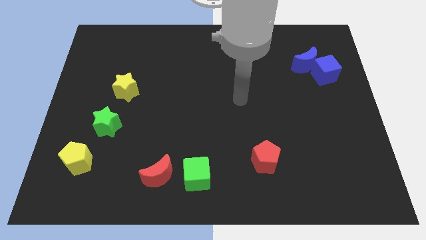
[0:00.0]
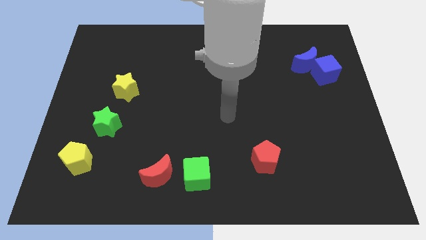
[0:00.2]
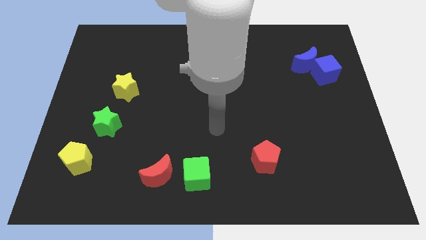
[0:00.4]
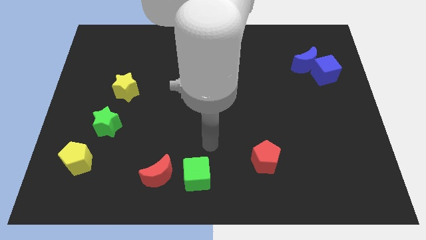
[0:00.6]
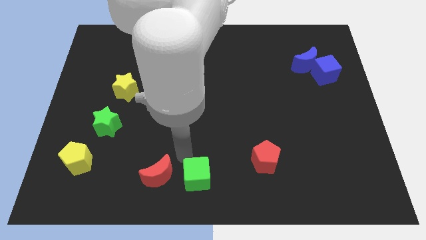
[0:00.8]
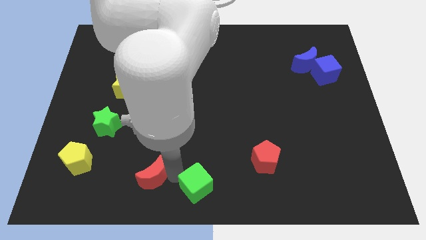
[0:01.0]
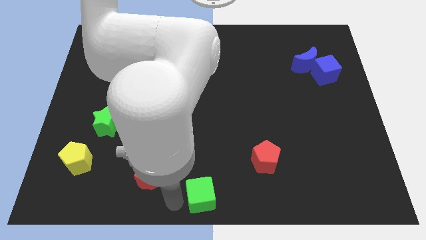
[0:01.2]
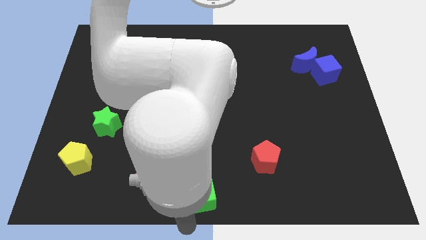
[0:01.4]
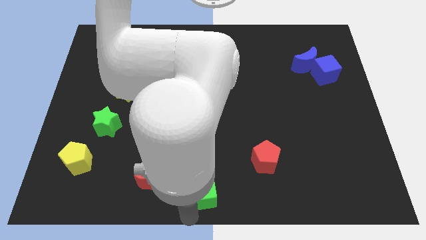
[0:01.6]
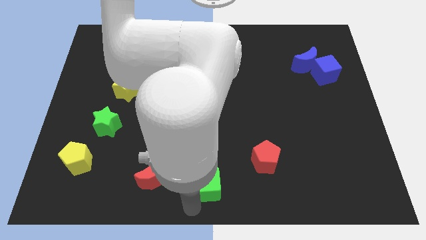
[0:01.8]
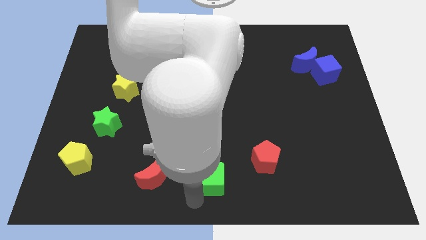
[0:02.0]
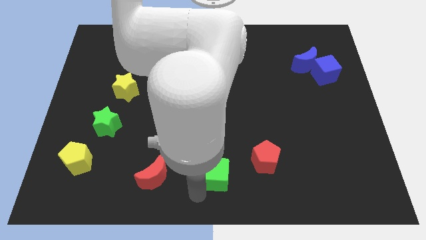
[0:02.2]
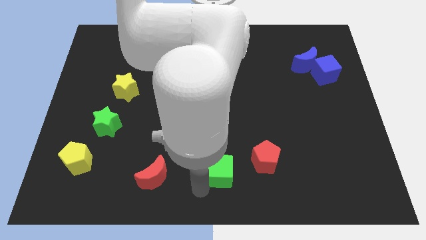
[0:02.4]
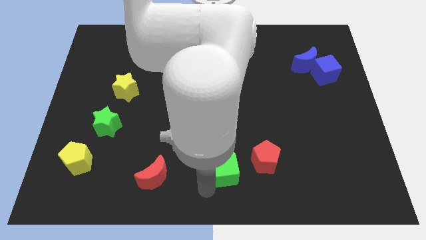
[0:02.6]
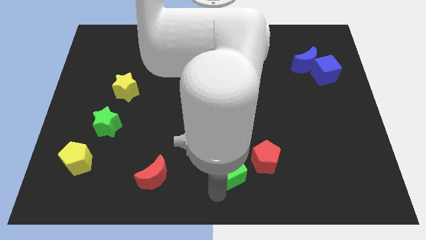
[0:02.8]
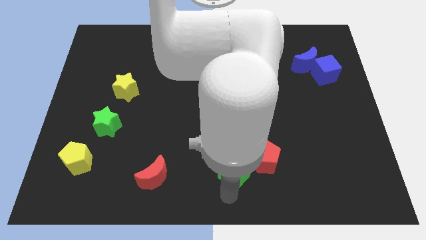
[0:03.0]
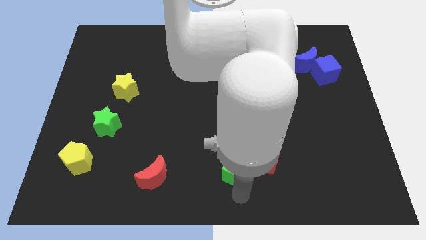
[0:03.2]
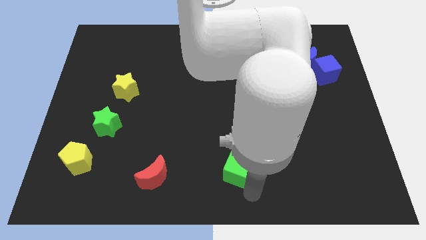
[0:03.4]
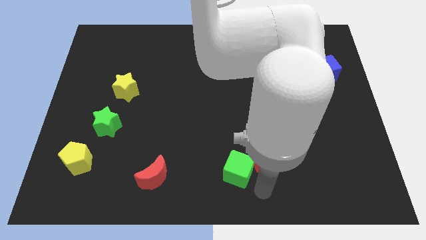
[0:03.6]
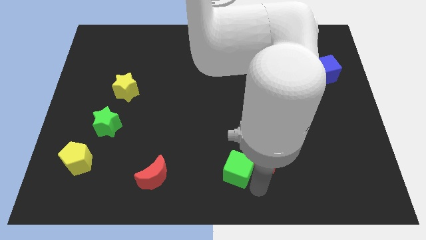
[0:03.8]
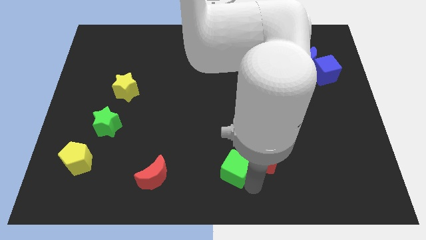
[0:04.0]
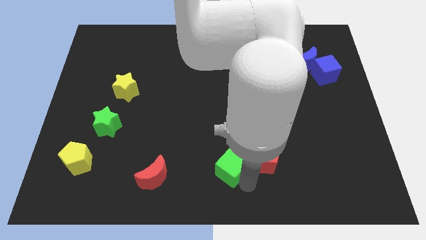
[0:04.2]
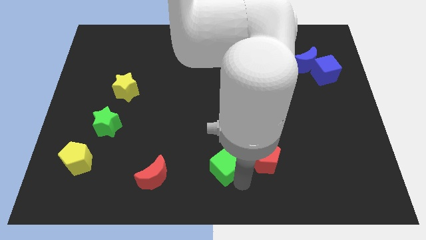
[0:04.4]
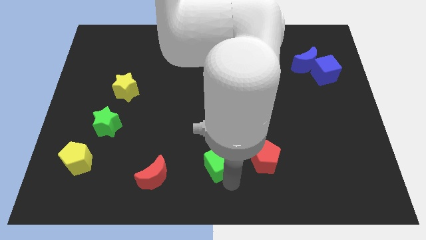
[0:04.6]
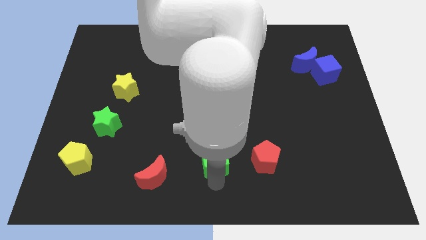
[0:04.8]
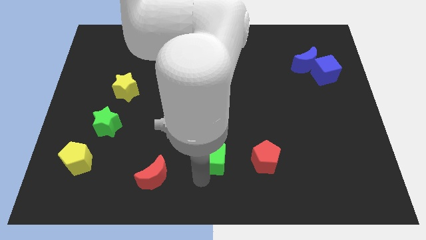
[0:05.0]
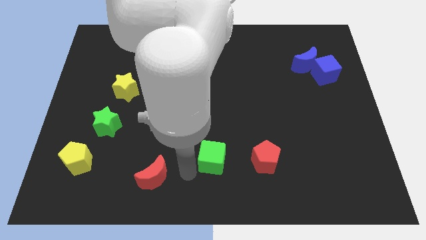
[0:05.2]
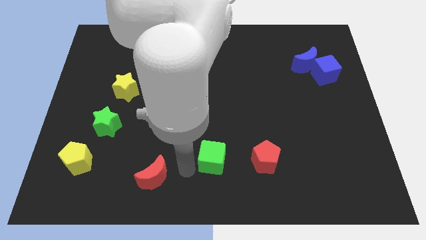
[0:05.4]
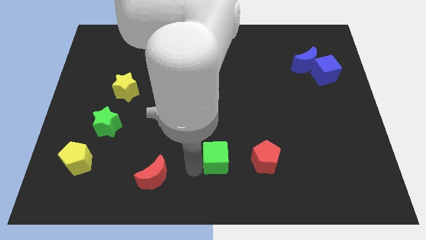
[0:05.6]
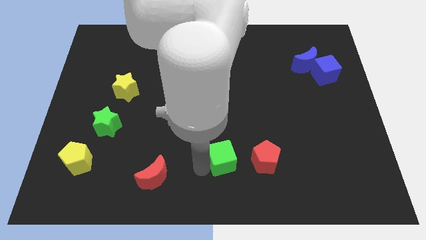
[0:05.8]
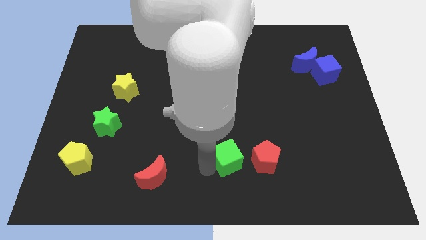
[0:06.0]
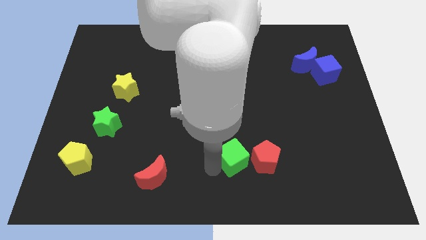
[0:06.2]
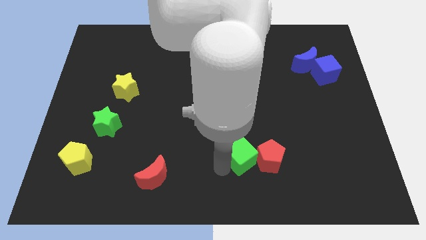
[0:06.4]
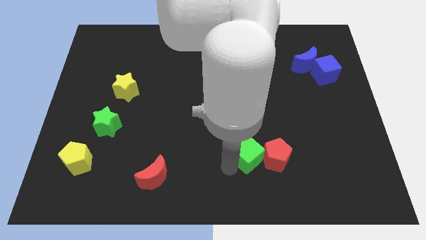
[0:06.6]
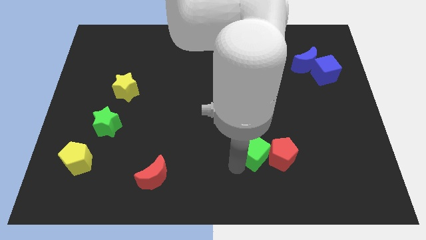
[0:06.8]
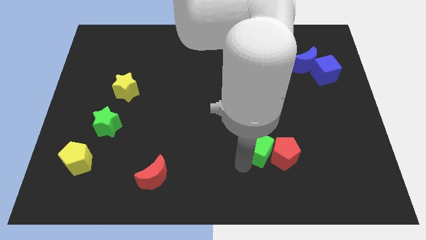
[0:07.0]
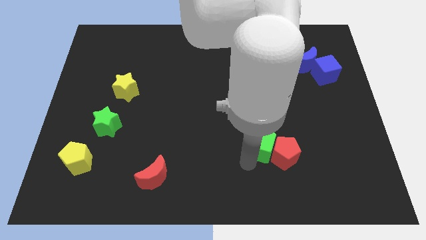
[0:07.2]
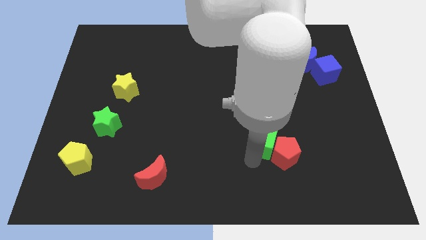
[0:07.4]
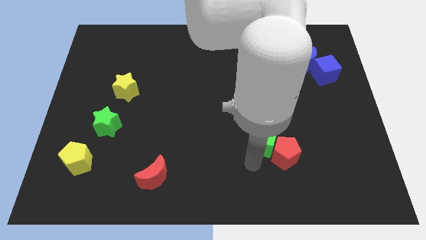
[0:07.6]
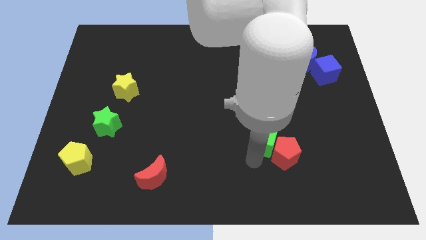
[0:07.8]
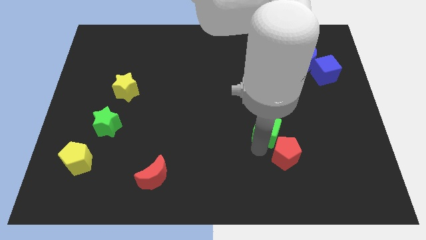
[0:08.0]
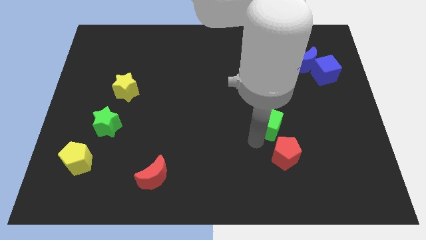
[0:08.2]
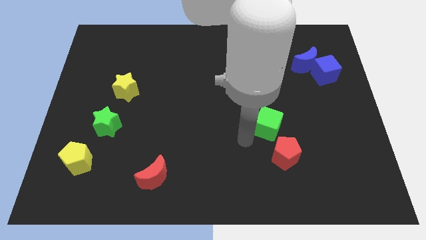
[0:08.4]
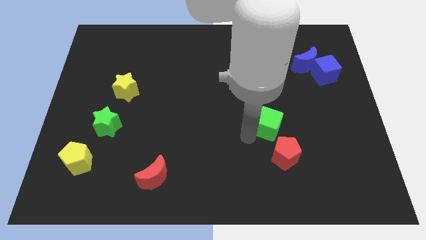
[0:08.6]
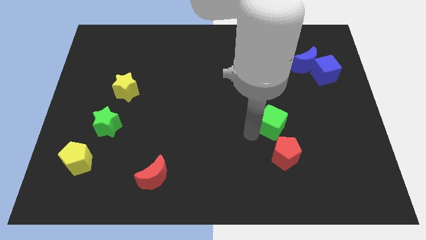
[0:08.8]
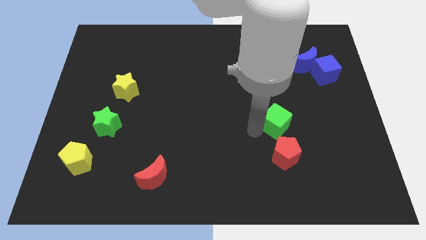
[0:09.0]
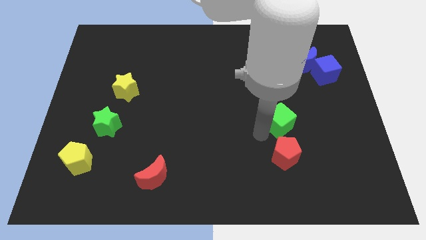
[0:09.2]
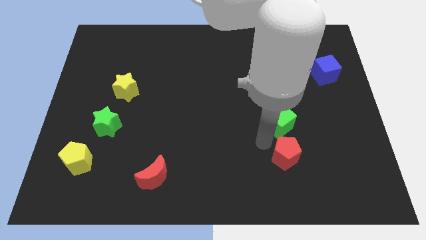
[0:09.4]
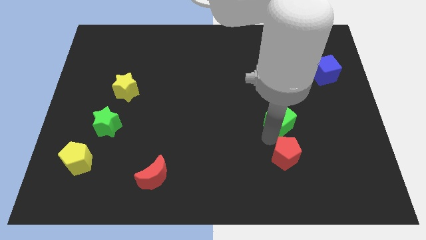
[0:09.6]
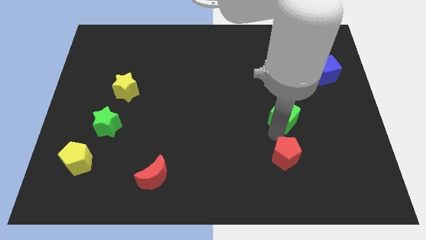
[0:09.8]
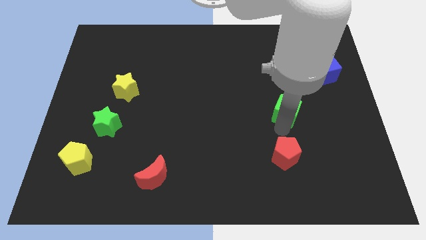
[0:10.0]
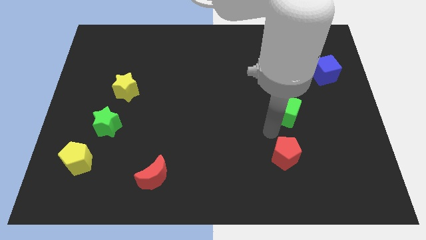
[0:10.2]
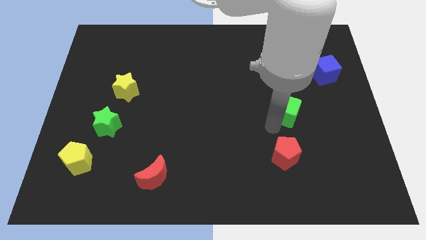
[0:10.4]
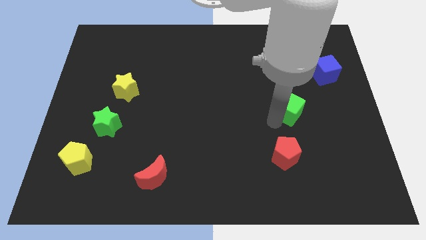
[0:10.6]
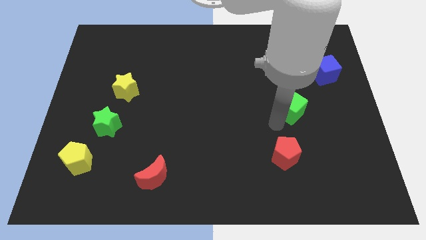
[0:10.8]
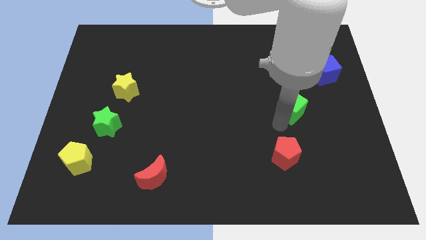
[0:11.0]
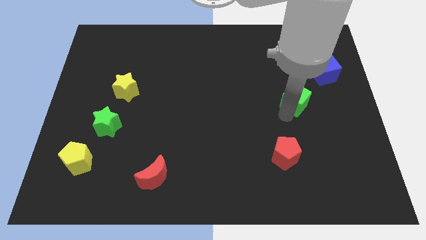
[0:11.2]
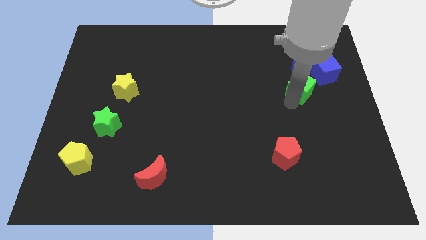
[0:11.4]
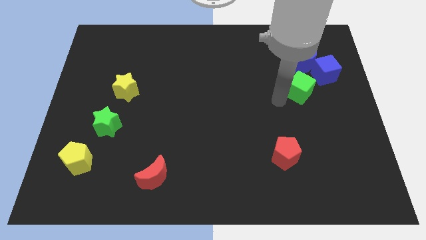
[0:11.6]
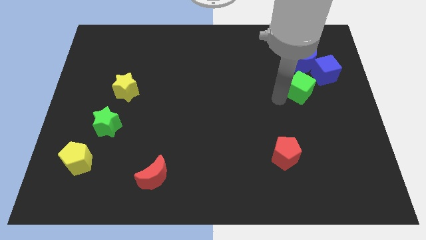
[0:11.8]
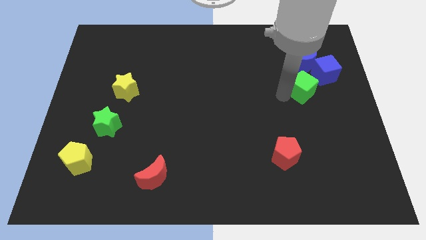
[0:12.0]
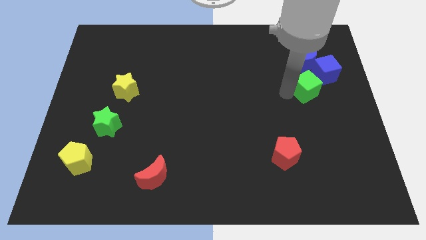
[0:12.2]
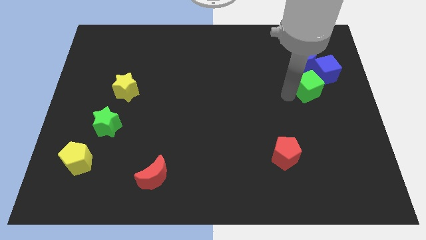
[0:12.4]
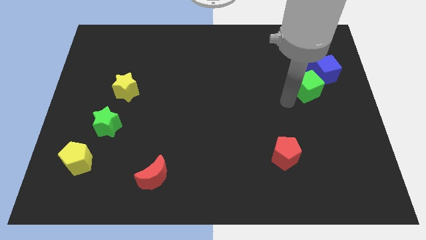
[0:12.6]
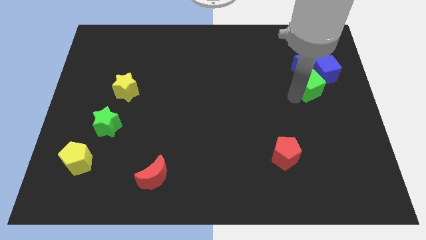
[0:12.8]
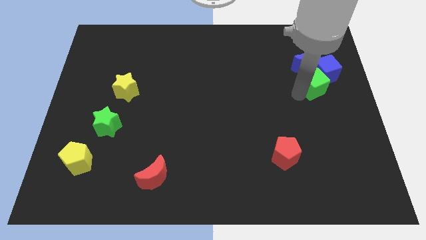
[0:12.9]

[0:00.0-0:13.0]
slide the green cube next to the blue cube

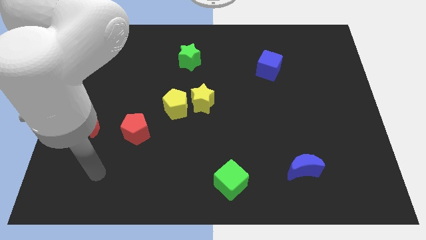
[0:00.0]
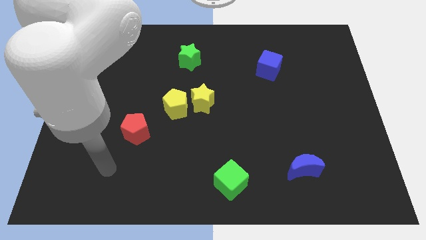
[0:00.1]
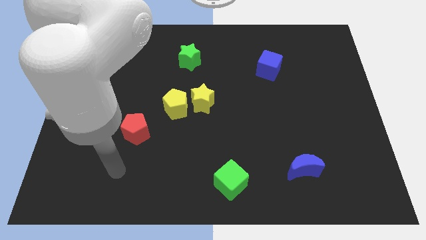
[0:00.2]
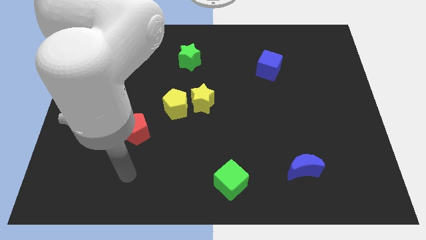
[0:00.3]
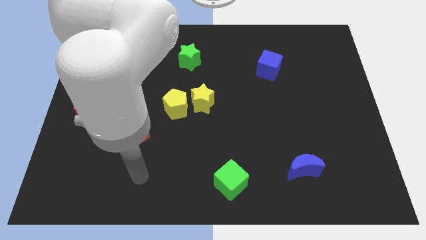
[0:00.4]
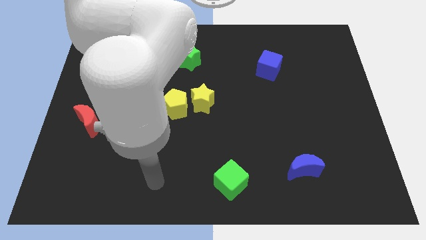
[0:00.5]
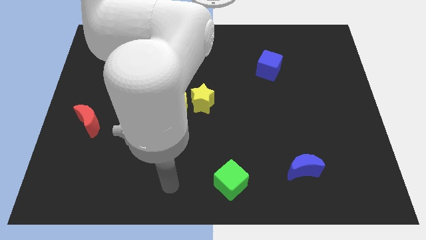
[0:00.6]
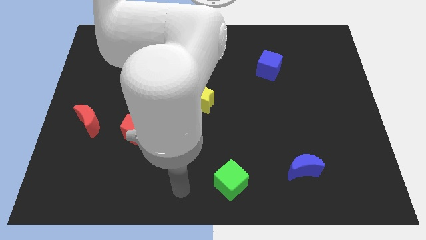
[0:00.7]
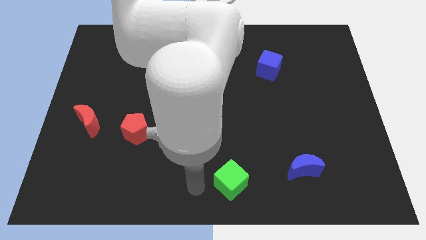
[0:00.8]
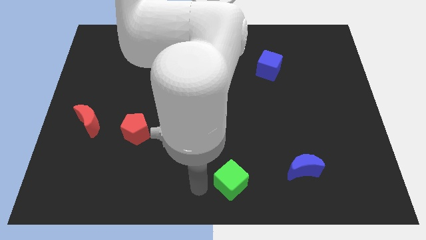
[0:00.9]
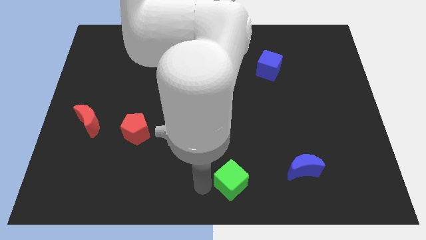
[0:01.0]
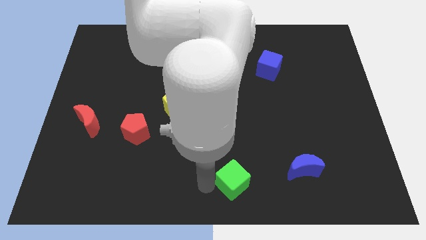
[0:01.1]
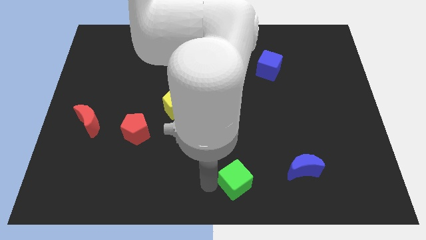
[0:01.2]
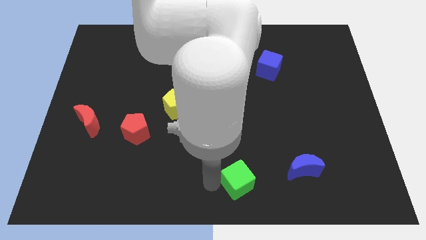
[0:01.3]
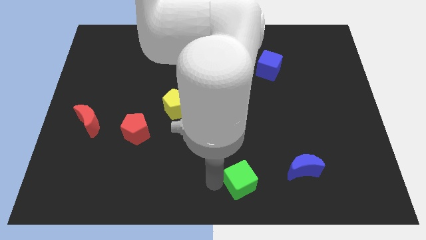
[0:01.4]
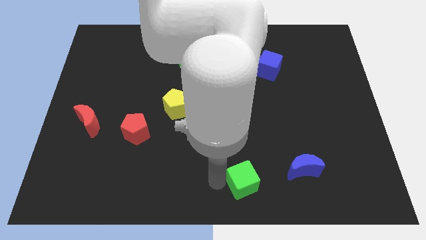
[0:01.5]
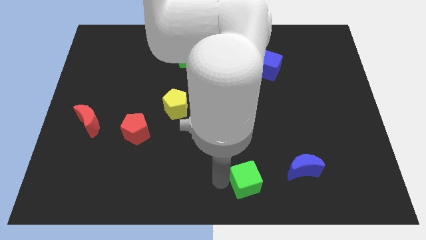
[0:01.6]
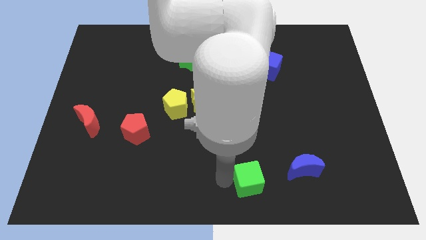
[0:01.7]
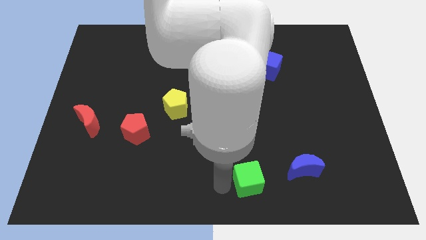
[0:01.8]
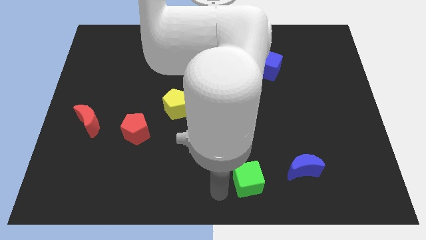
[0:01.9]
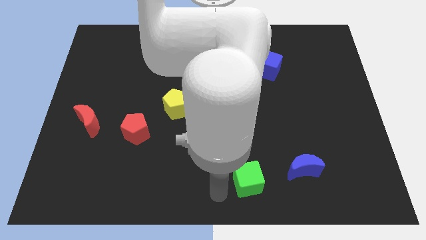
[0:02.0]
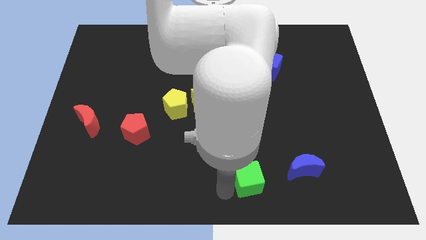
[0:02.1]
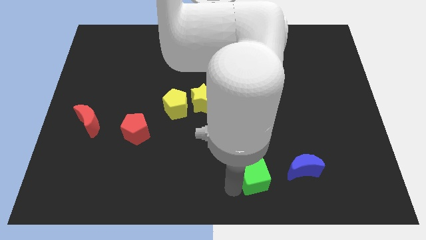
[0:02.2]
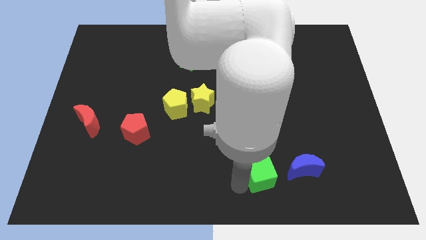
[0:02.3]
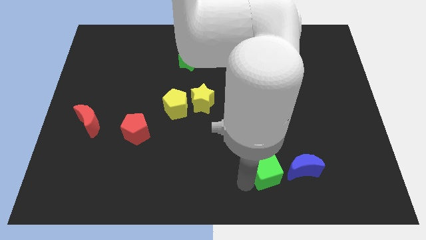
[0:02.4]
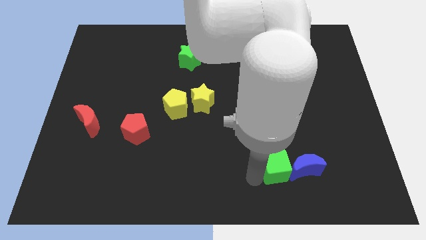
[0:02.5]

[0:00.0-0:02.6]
slide the green cube next to the blue moon
